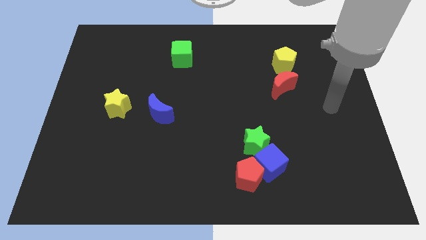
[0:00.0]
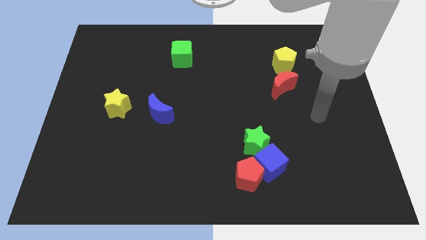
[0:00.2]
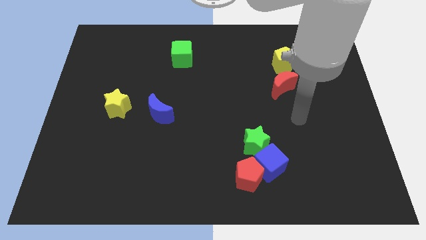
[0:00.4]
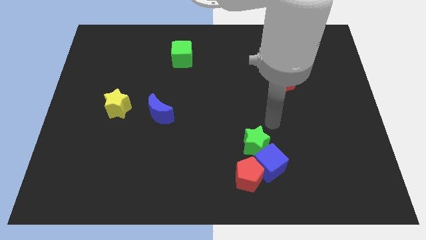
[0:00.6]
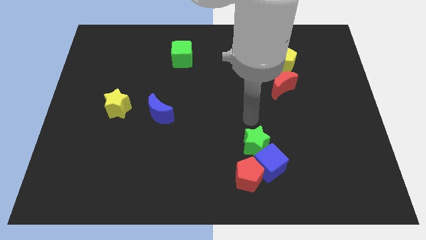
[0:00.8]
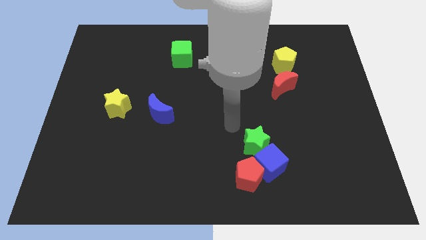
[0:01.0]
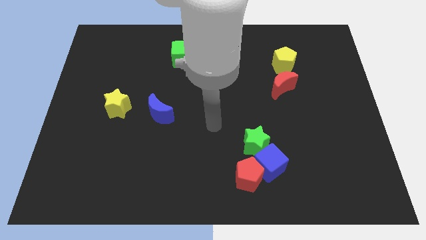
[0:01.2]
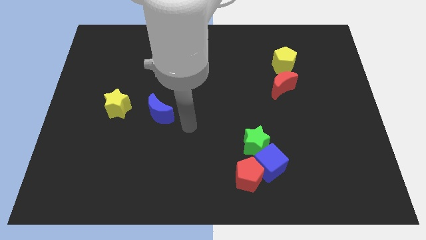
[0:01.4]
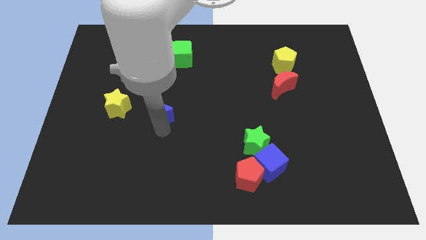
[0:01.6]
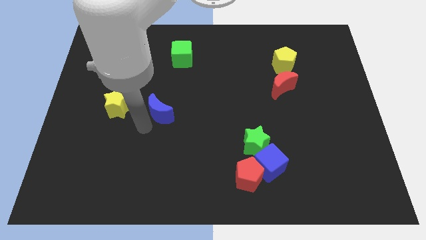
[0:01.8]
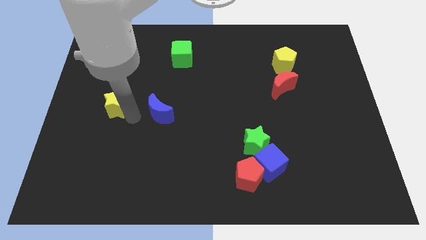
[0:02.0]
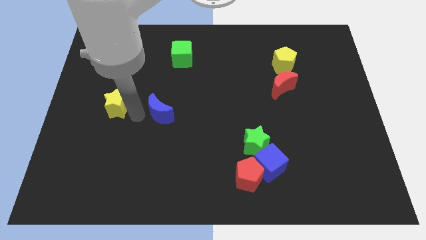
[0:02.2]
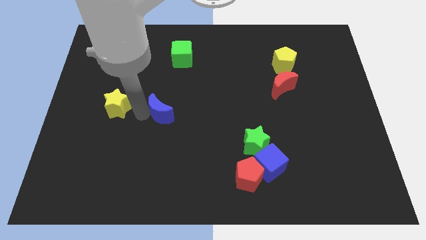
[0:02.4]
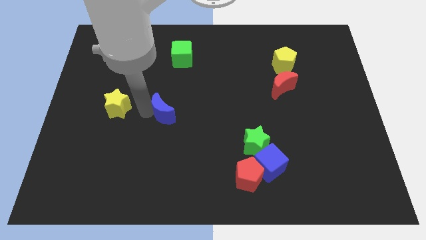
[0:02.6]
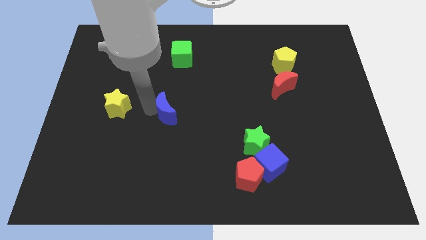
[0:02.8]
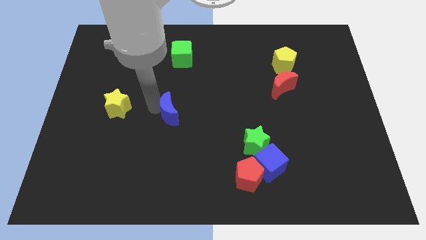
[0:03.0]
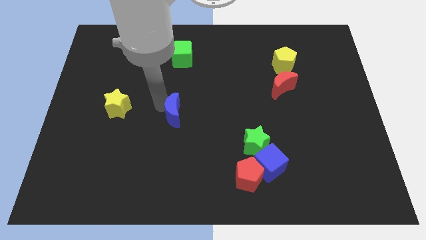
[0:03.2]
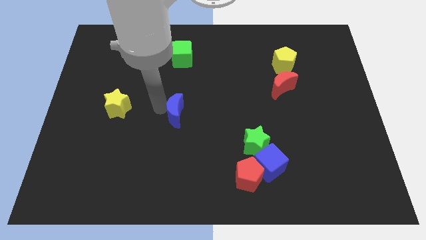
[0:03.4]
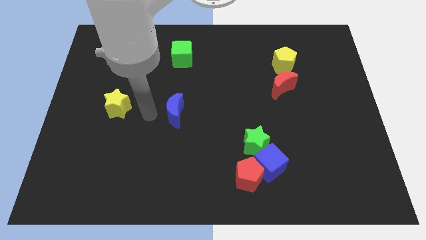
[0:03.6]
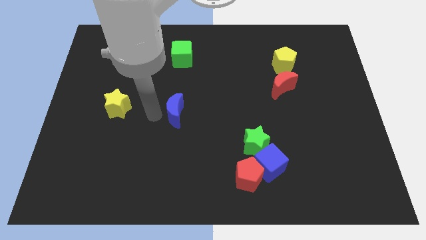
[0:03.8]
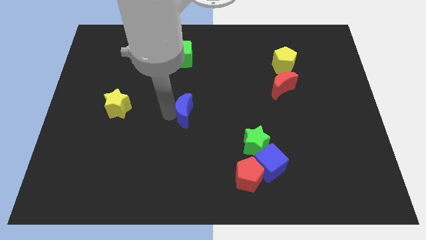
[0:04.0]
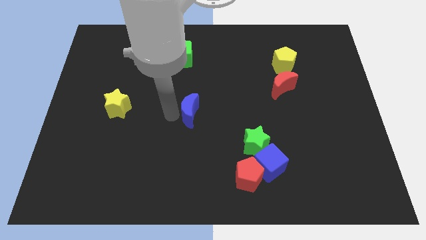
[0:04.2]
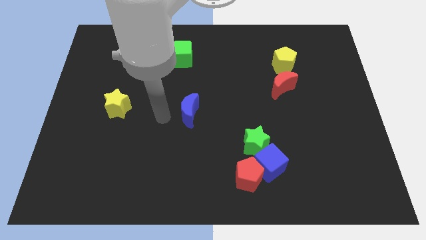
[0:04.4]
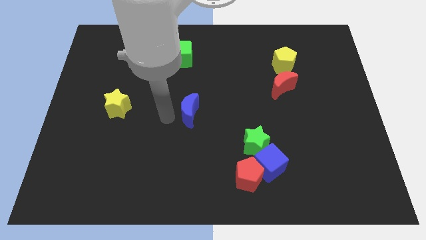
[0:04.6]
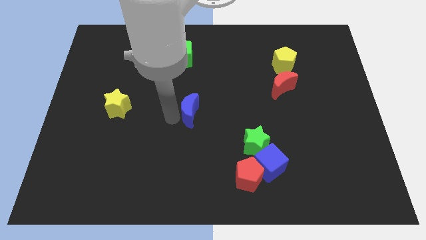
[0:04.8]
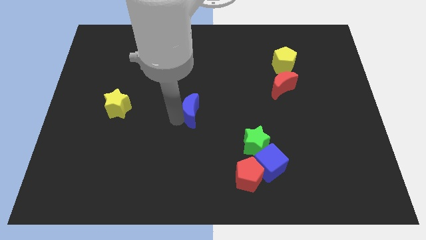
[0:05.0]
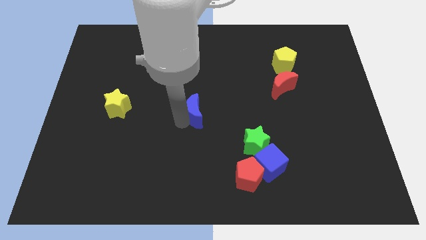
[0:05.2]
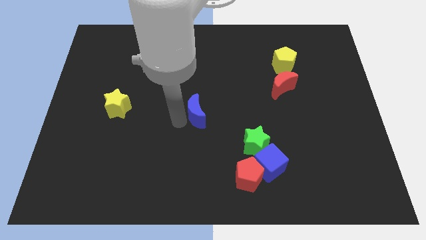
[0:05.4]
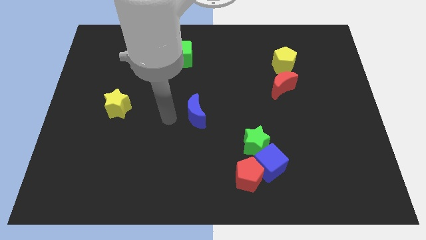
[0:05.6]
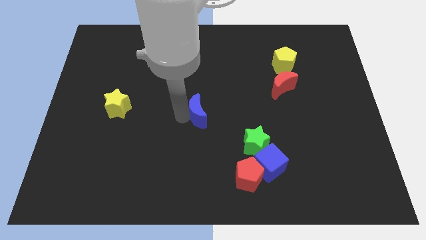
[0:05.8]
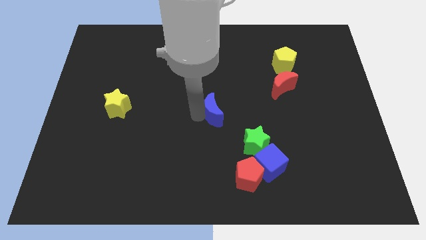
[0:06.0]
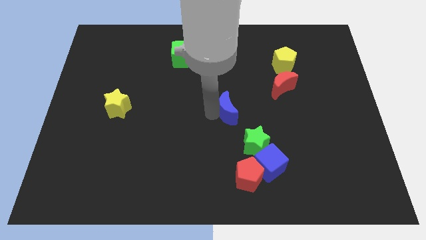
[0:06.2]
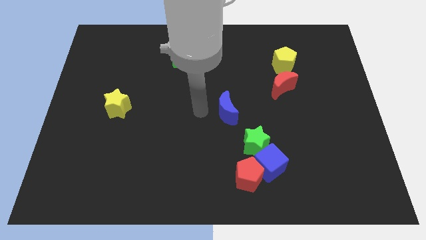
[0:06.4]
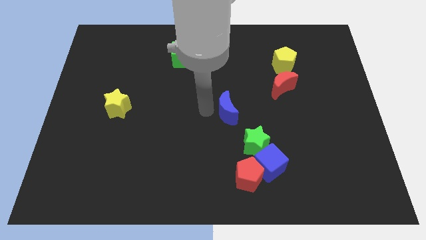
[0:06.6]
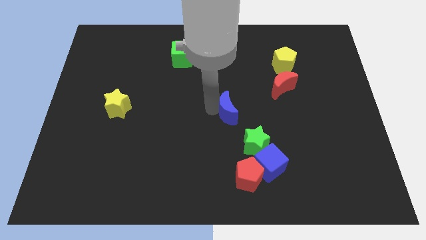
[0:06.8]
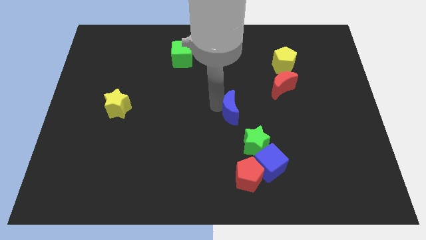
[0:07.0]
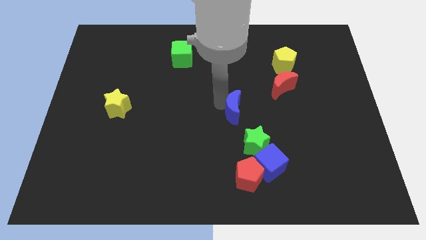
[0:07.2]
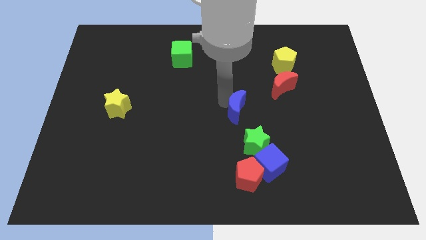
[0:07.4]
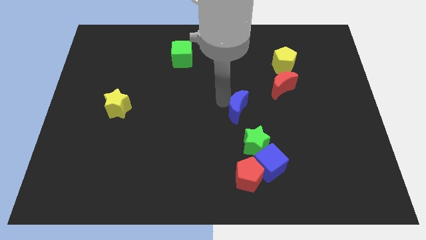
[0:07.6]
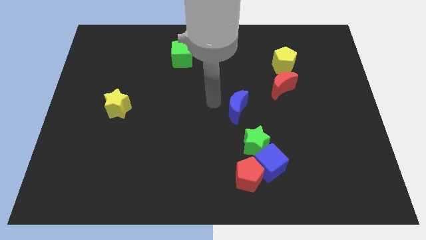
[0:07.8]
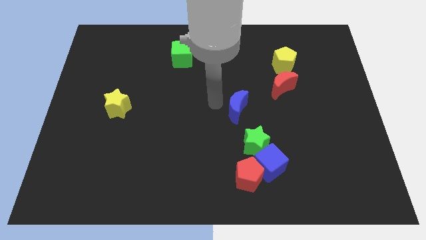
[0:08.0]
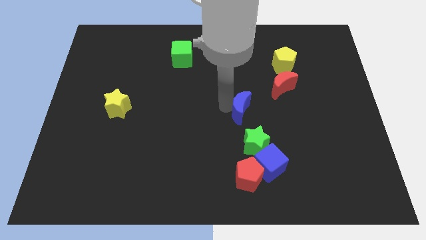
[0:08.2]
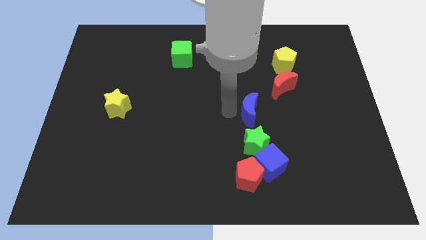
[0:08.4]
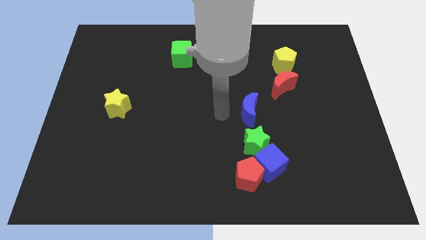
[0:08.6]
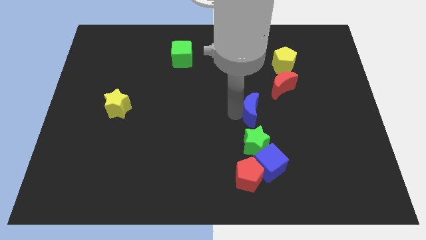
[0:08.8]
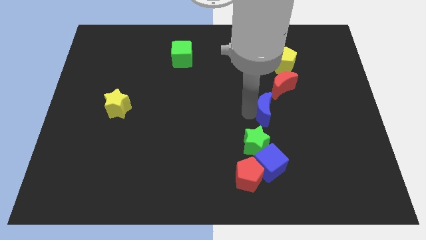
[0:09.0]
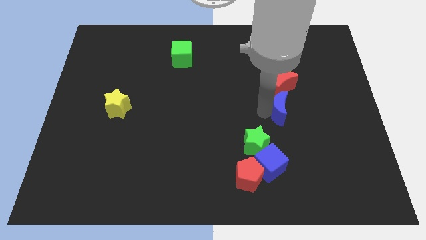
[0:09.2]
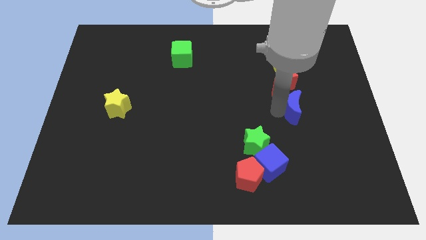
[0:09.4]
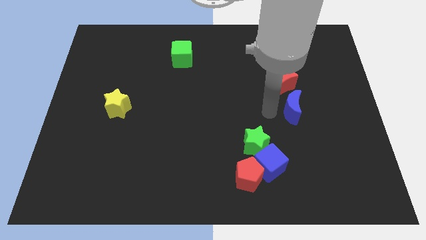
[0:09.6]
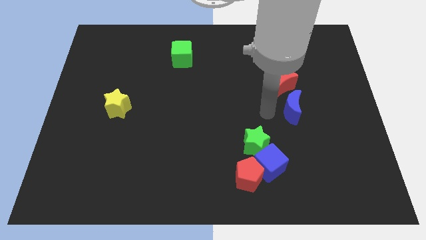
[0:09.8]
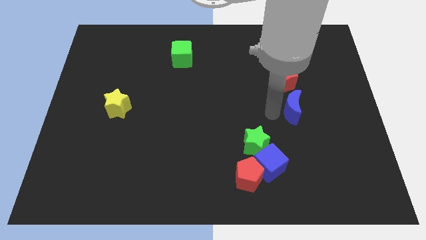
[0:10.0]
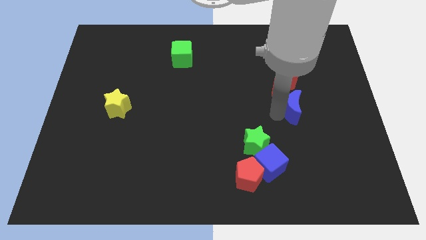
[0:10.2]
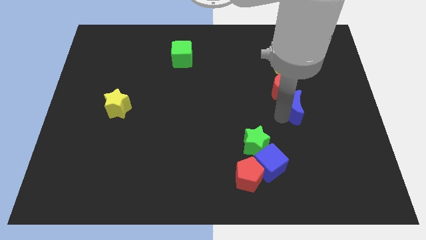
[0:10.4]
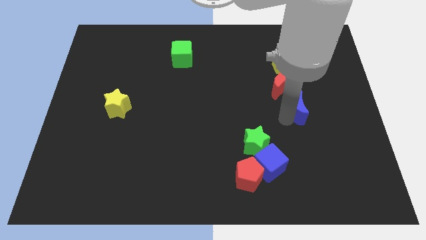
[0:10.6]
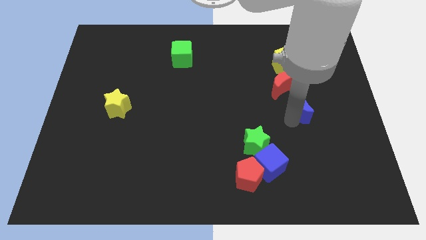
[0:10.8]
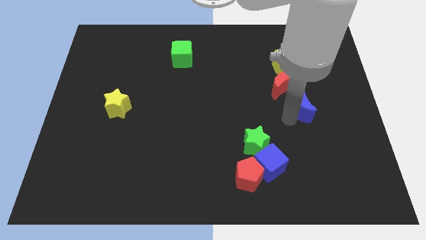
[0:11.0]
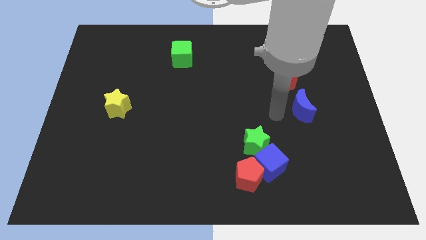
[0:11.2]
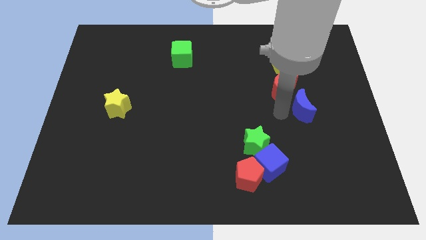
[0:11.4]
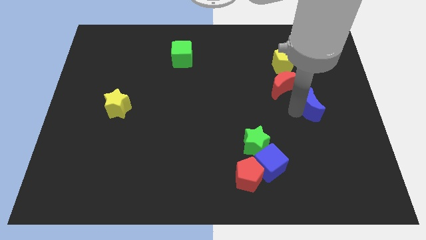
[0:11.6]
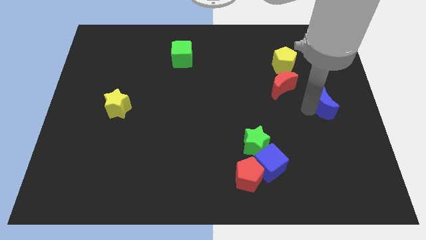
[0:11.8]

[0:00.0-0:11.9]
move the blue moon to the right side of the board

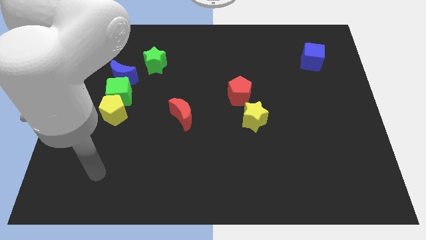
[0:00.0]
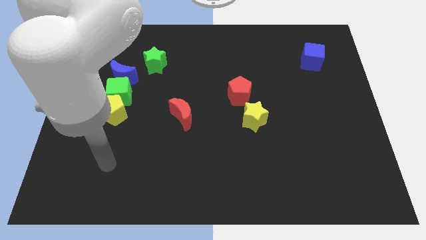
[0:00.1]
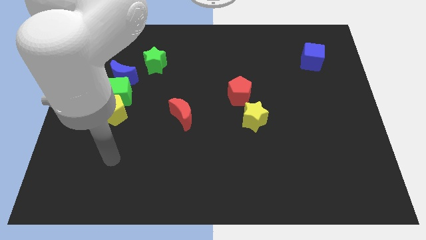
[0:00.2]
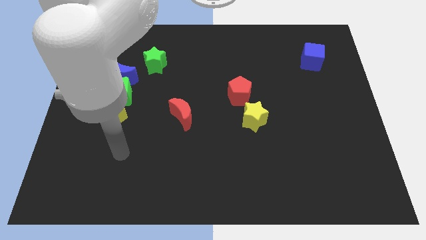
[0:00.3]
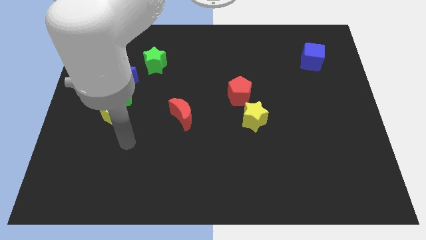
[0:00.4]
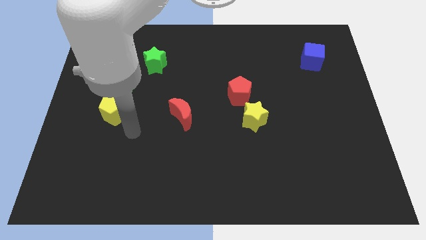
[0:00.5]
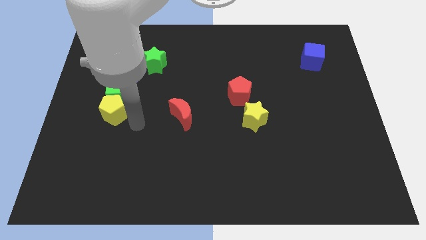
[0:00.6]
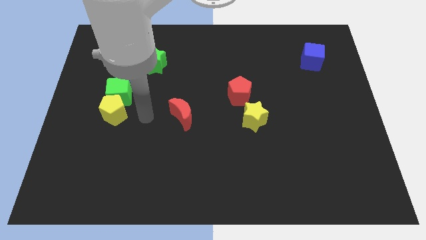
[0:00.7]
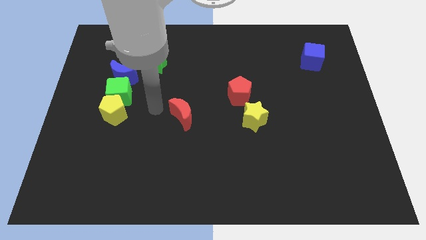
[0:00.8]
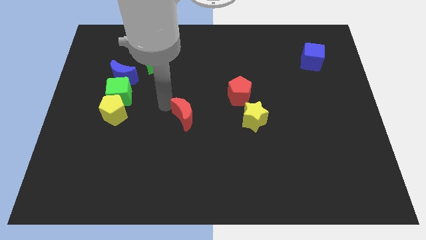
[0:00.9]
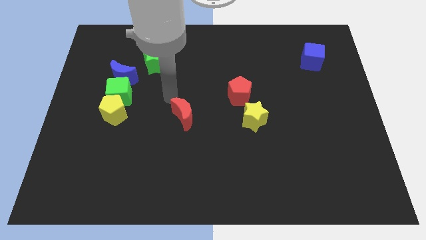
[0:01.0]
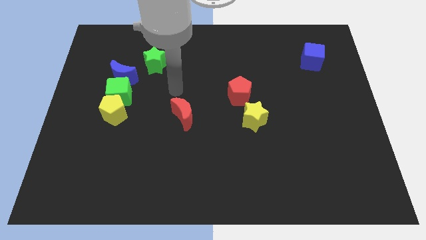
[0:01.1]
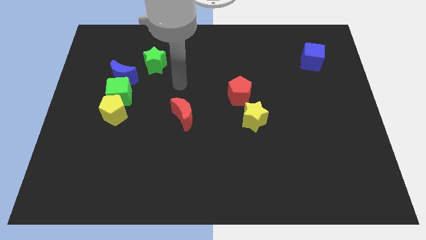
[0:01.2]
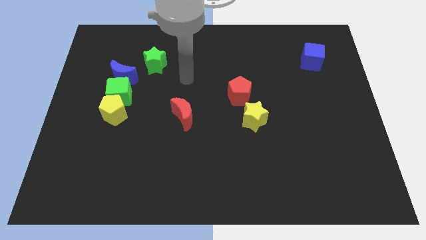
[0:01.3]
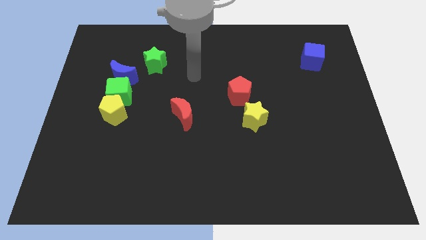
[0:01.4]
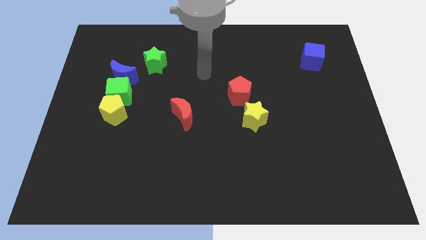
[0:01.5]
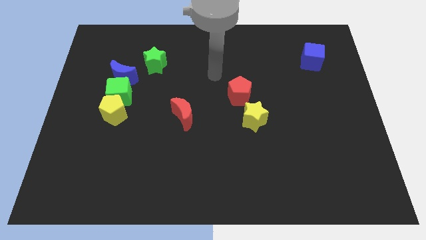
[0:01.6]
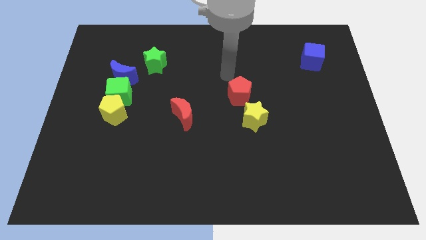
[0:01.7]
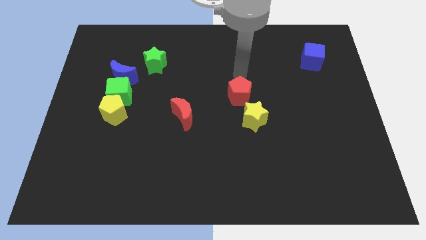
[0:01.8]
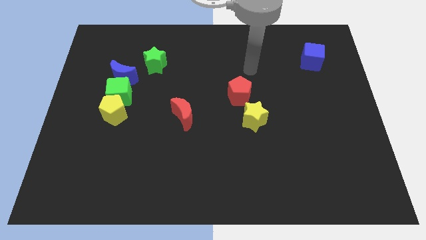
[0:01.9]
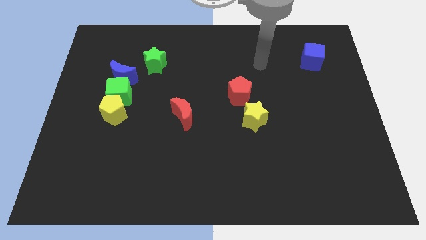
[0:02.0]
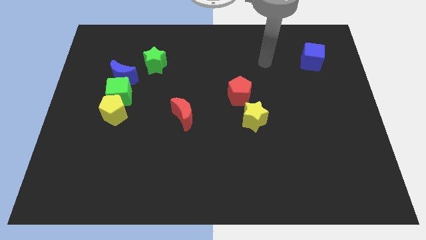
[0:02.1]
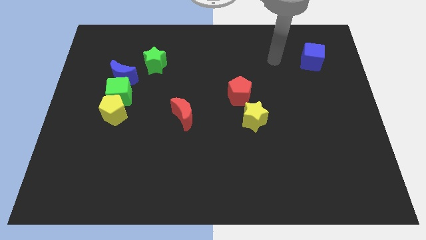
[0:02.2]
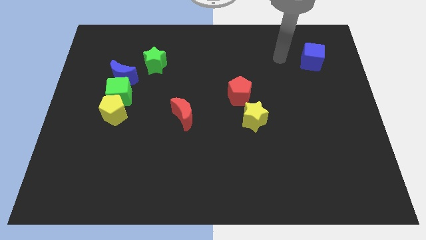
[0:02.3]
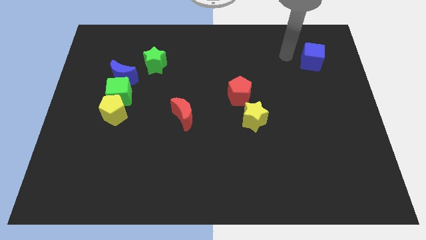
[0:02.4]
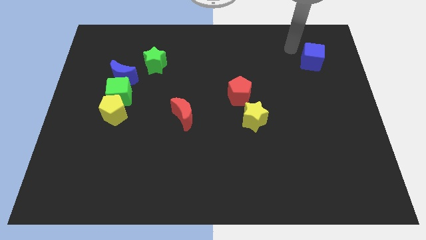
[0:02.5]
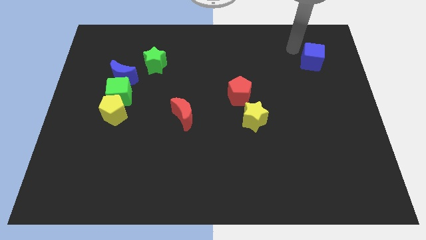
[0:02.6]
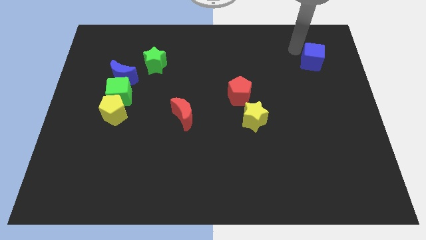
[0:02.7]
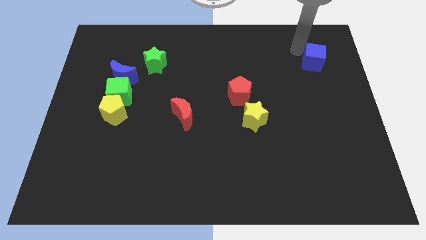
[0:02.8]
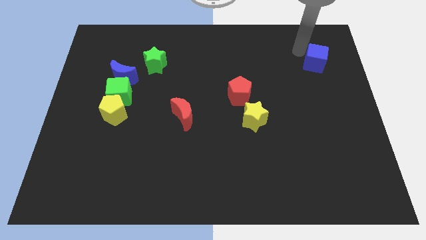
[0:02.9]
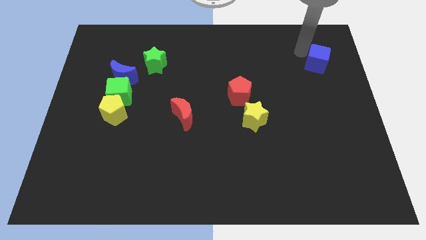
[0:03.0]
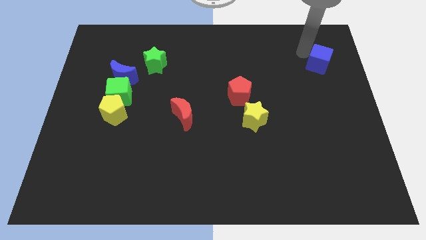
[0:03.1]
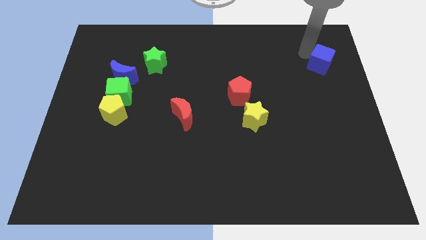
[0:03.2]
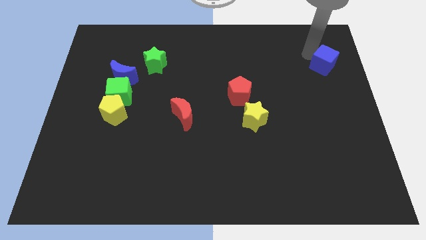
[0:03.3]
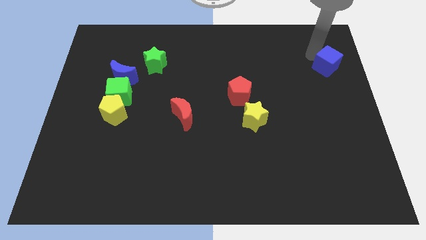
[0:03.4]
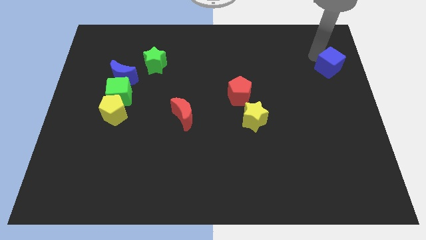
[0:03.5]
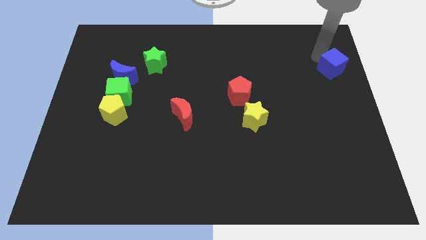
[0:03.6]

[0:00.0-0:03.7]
slide the blue cube to the center right
